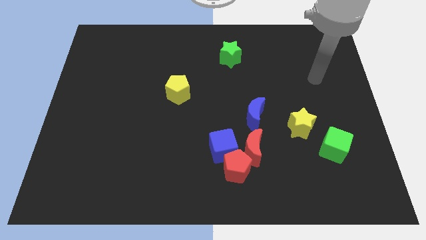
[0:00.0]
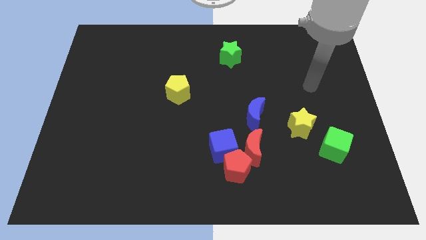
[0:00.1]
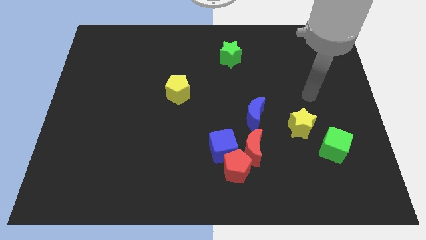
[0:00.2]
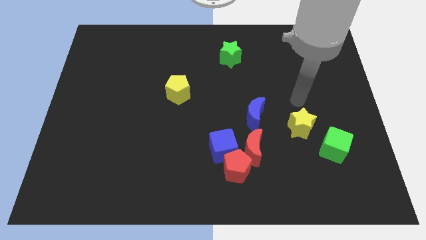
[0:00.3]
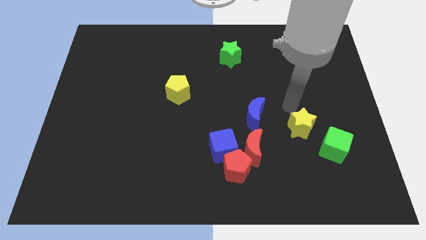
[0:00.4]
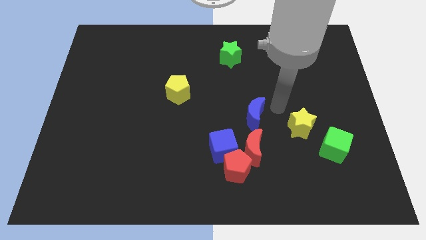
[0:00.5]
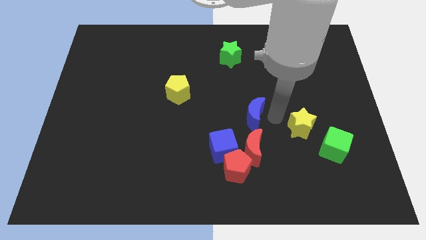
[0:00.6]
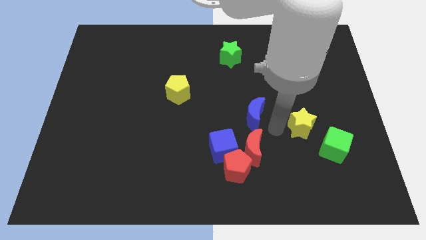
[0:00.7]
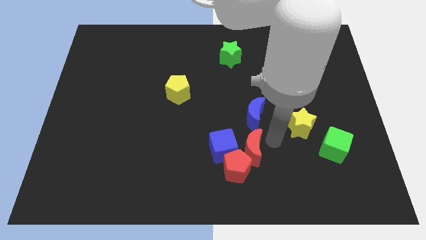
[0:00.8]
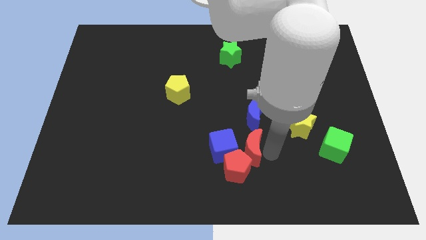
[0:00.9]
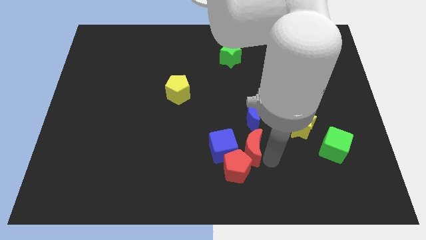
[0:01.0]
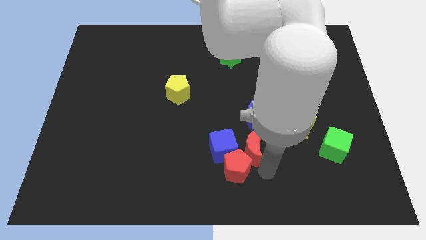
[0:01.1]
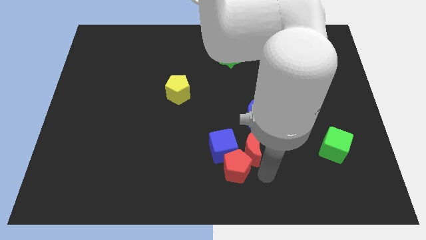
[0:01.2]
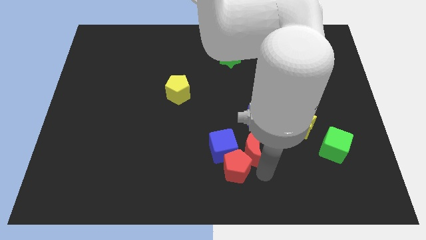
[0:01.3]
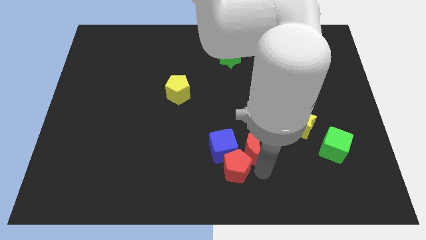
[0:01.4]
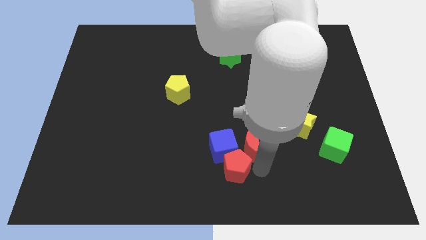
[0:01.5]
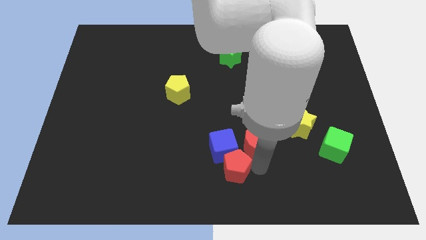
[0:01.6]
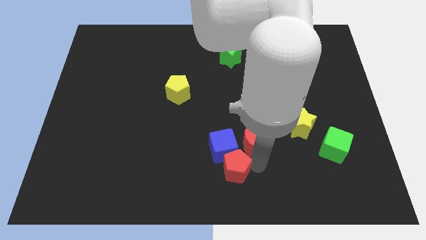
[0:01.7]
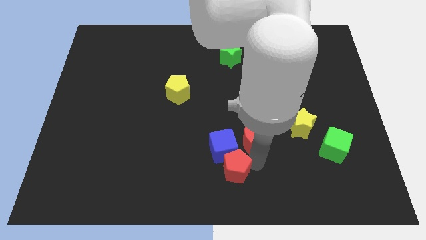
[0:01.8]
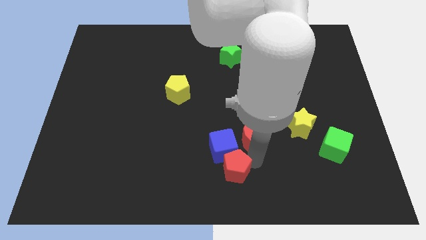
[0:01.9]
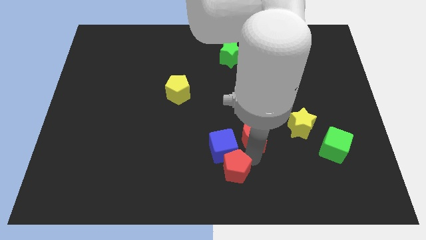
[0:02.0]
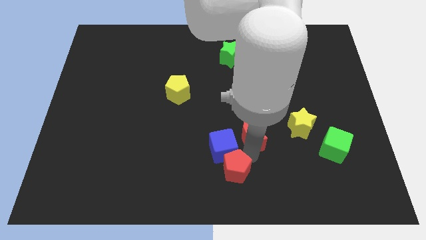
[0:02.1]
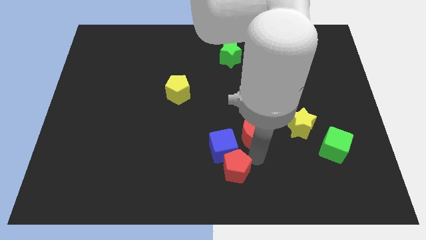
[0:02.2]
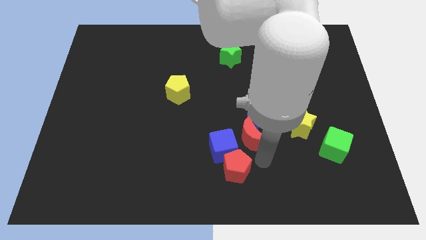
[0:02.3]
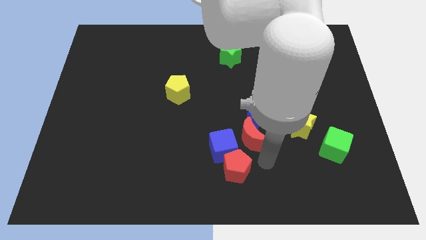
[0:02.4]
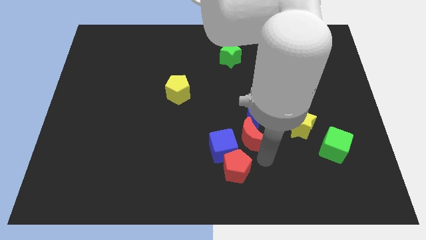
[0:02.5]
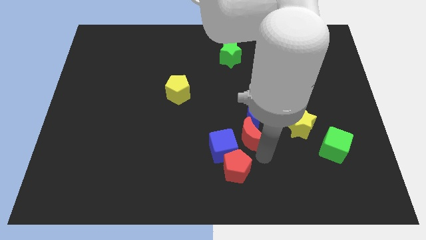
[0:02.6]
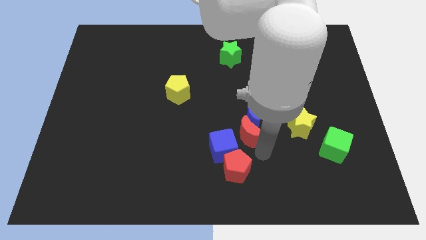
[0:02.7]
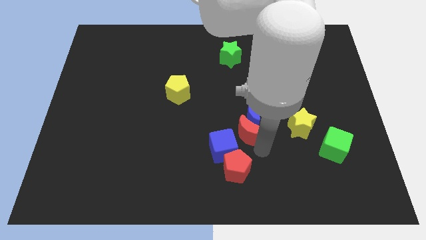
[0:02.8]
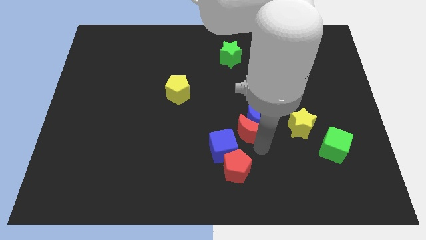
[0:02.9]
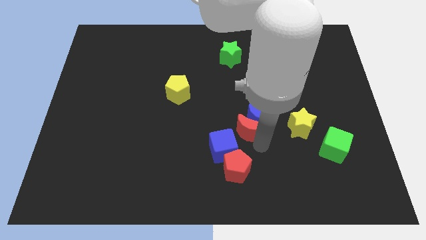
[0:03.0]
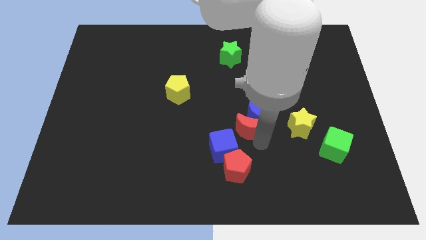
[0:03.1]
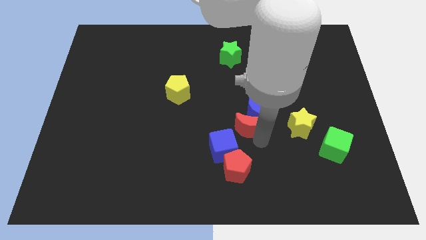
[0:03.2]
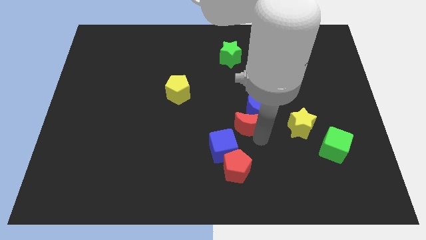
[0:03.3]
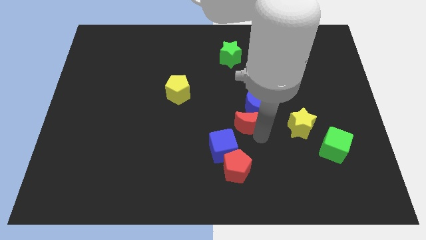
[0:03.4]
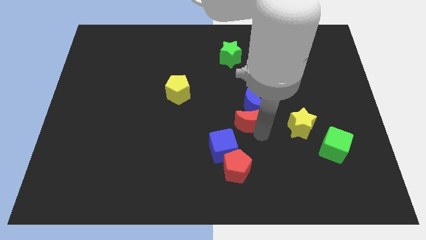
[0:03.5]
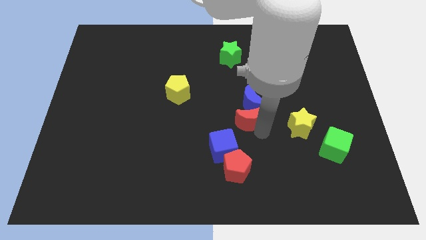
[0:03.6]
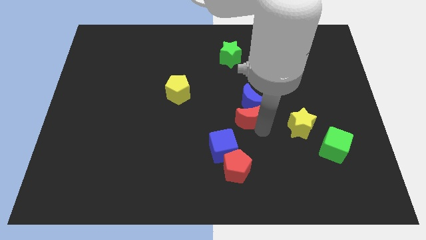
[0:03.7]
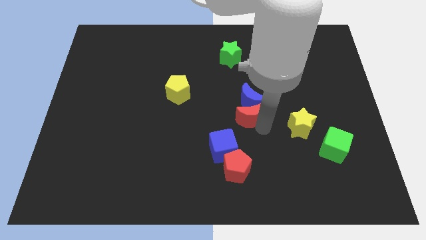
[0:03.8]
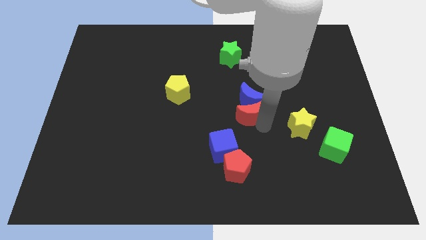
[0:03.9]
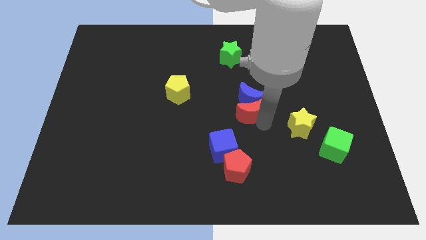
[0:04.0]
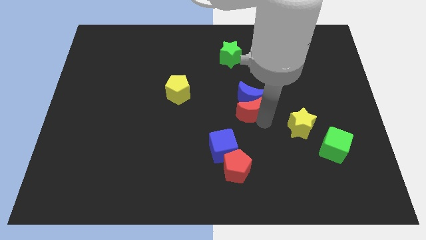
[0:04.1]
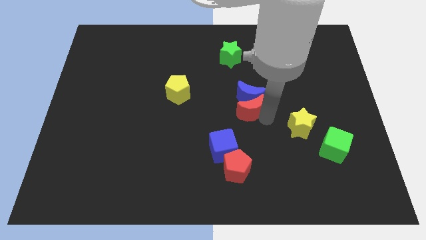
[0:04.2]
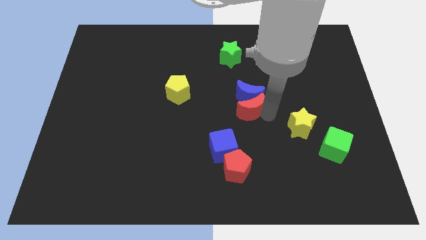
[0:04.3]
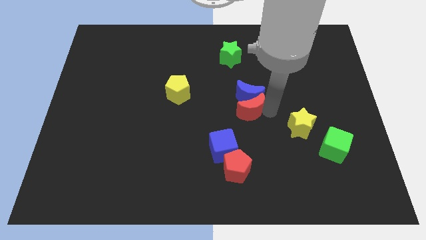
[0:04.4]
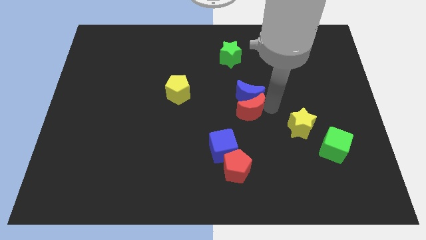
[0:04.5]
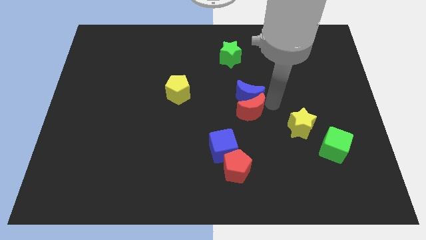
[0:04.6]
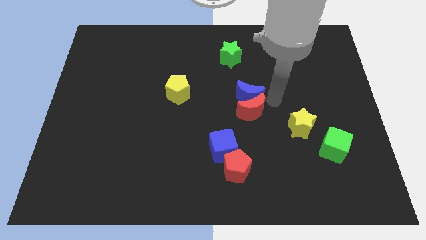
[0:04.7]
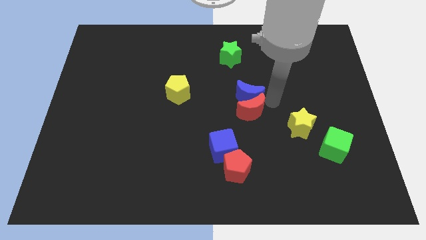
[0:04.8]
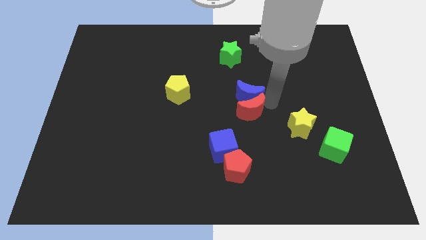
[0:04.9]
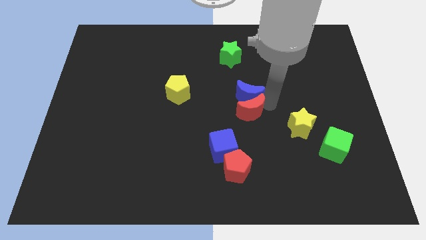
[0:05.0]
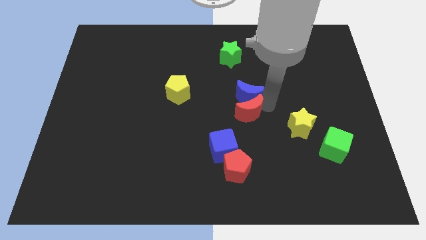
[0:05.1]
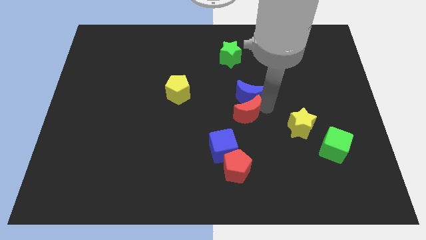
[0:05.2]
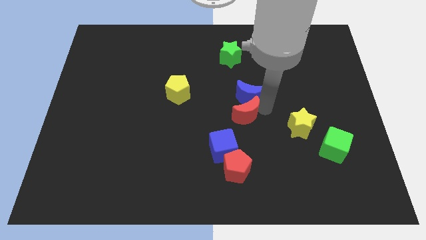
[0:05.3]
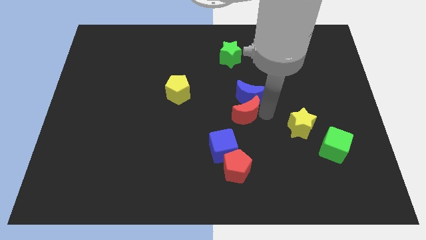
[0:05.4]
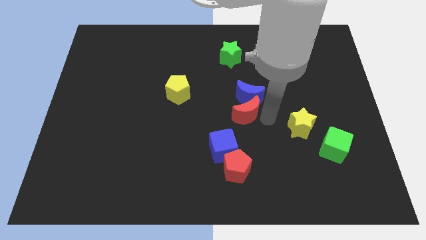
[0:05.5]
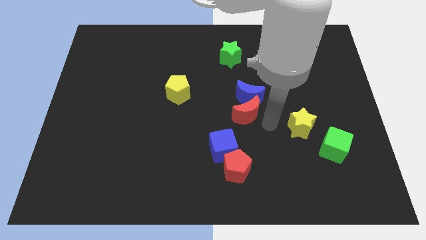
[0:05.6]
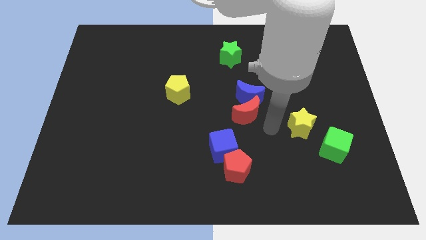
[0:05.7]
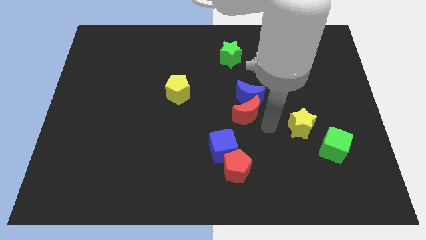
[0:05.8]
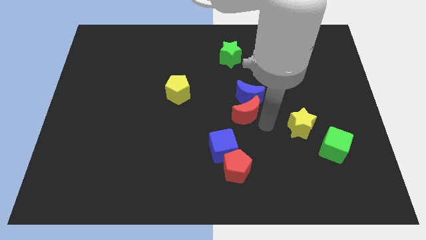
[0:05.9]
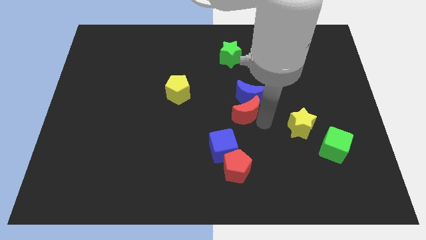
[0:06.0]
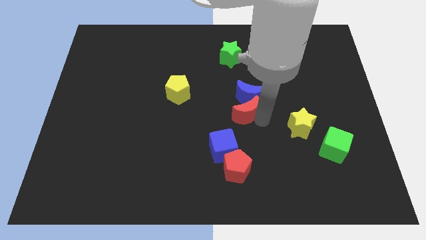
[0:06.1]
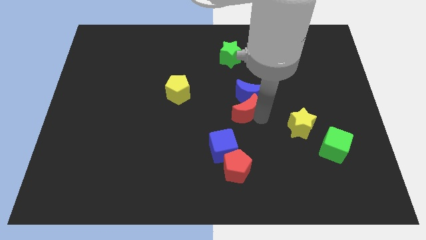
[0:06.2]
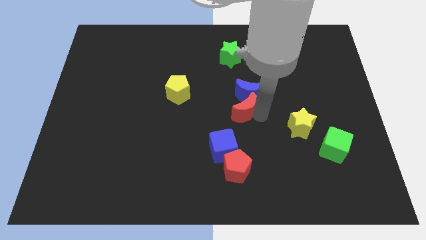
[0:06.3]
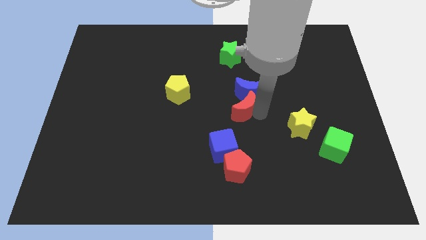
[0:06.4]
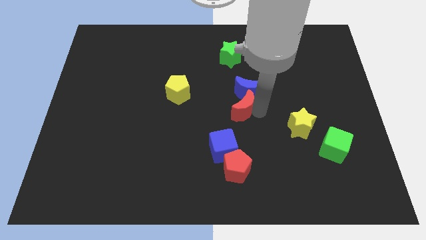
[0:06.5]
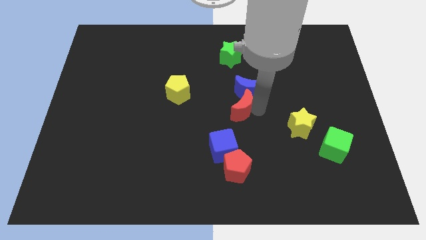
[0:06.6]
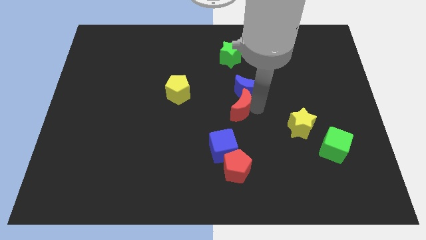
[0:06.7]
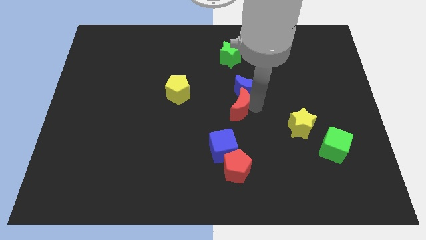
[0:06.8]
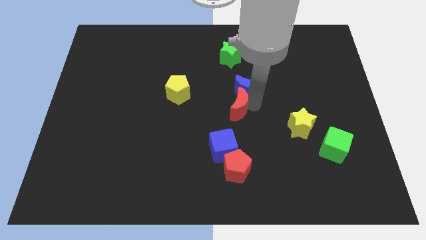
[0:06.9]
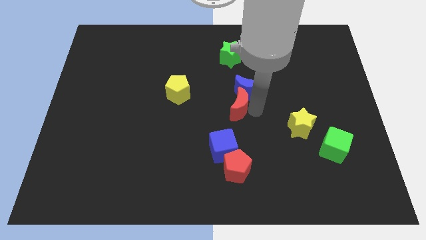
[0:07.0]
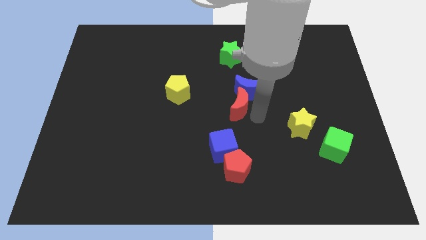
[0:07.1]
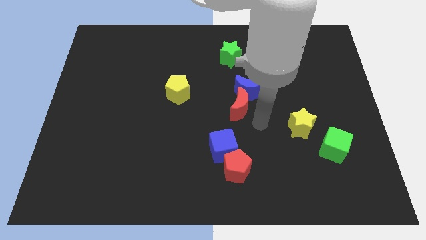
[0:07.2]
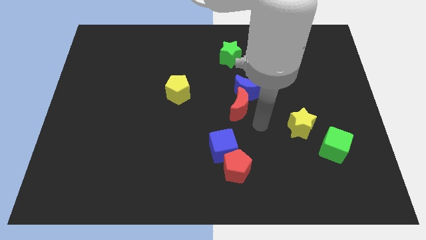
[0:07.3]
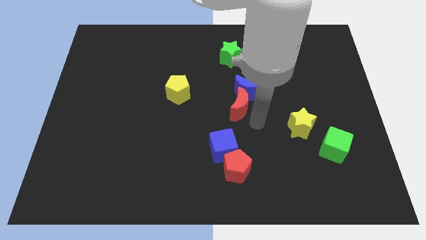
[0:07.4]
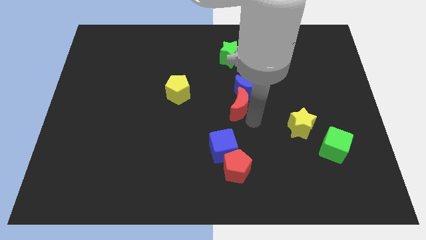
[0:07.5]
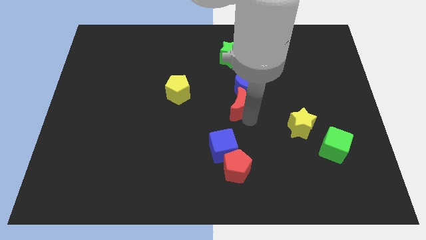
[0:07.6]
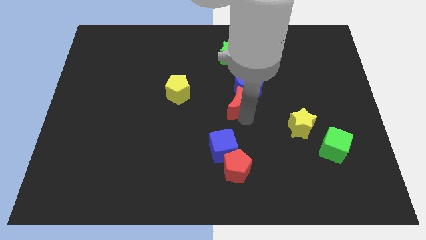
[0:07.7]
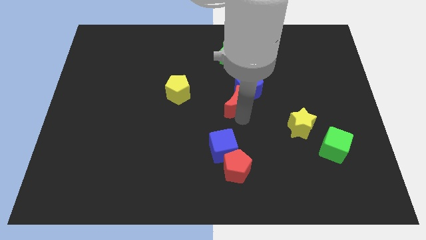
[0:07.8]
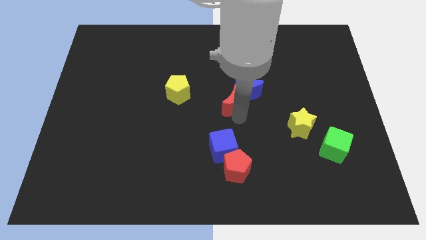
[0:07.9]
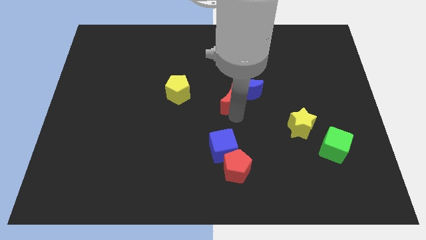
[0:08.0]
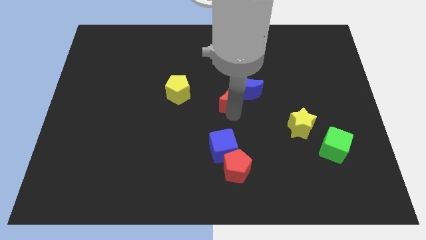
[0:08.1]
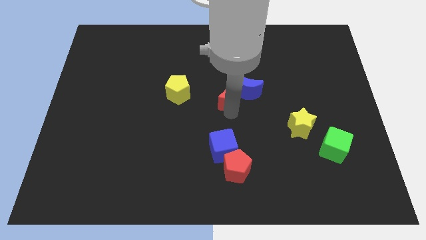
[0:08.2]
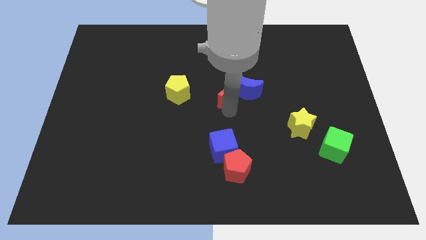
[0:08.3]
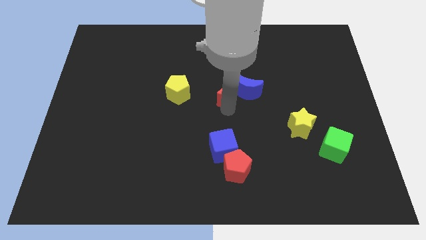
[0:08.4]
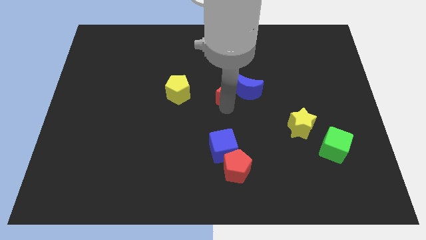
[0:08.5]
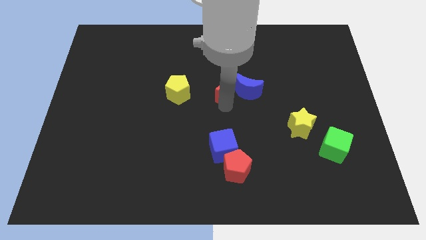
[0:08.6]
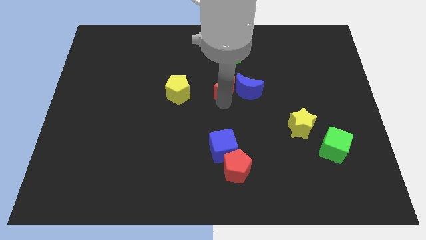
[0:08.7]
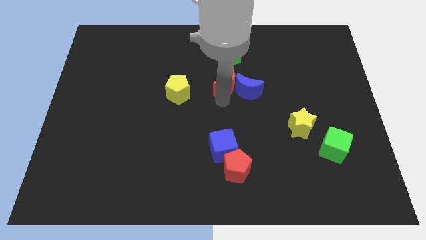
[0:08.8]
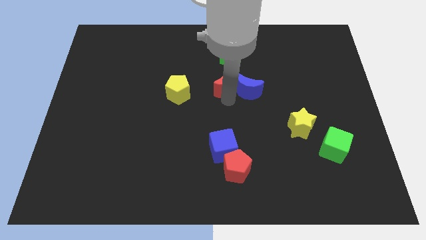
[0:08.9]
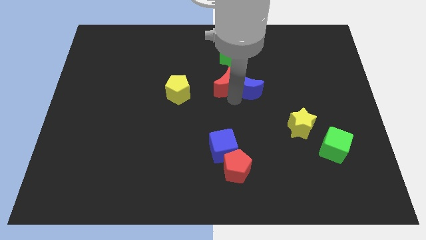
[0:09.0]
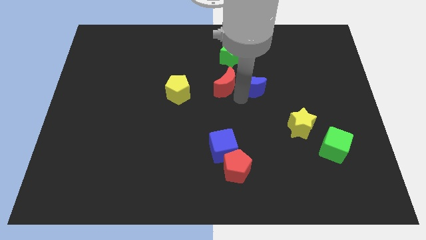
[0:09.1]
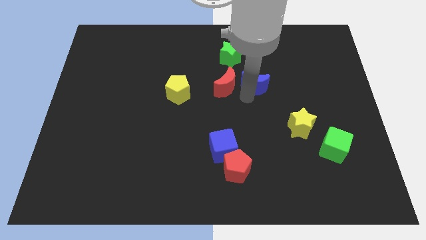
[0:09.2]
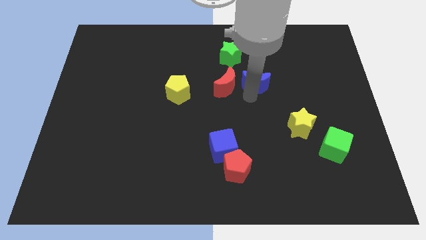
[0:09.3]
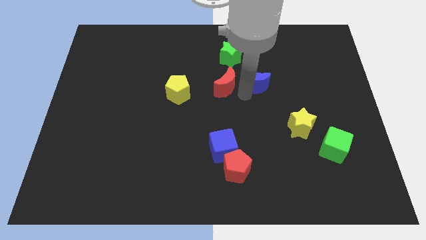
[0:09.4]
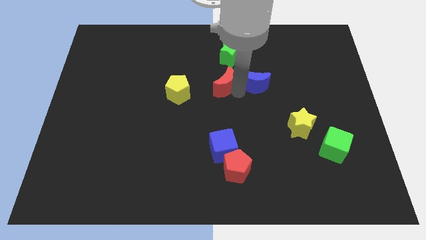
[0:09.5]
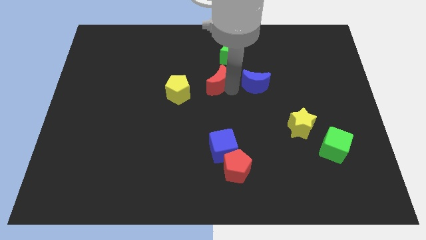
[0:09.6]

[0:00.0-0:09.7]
move the red moon to the top right of the yellow pentagon
